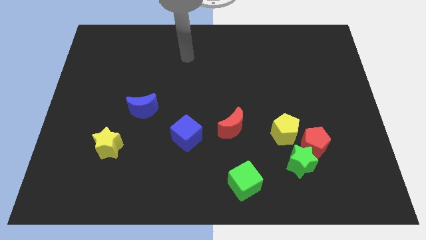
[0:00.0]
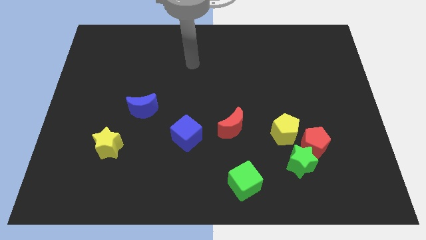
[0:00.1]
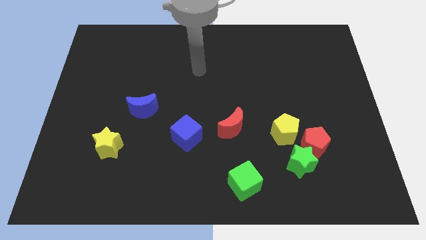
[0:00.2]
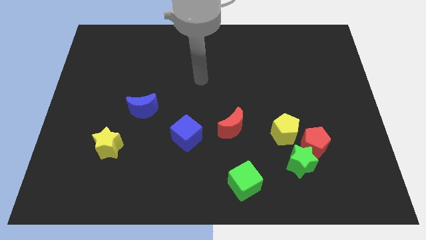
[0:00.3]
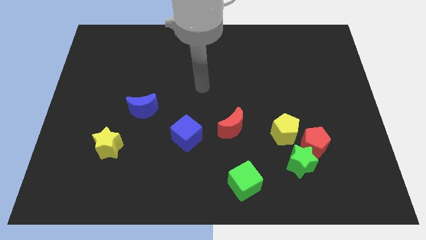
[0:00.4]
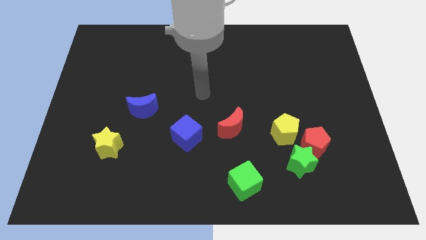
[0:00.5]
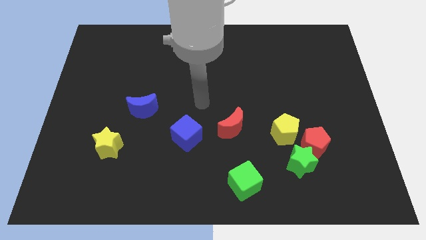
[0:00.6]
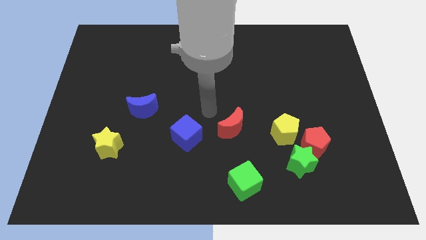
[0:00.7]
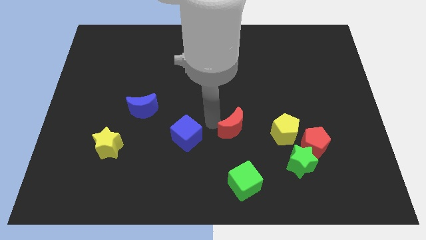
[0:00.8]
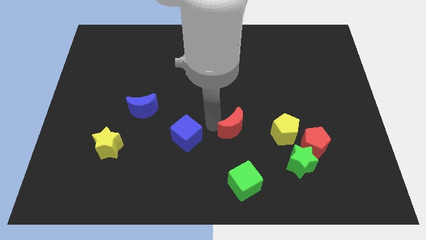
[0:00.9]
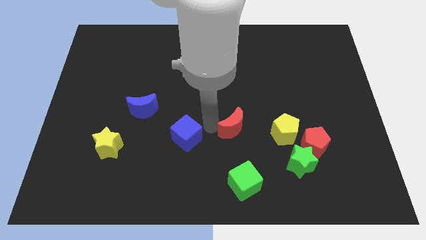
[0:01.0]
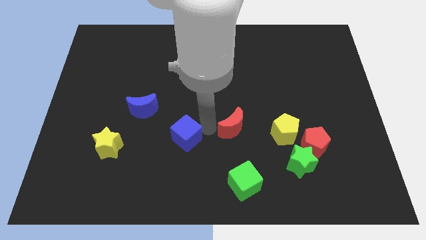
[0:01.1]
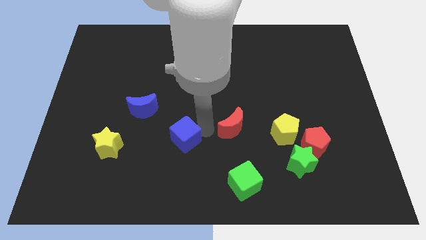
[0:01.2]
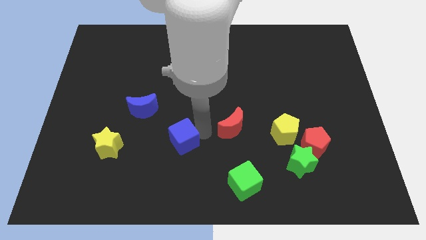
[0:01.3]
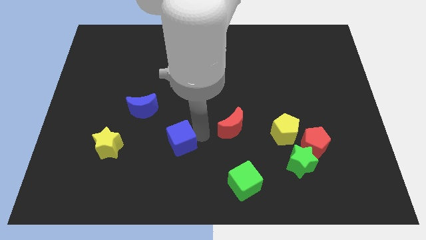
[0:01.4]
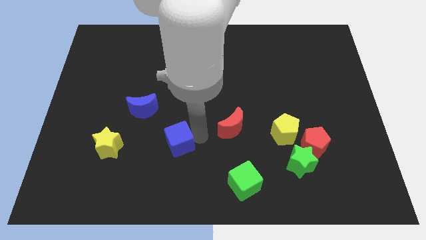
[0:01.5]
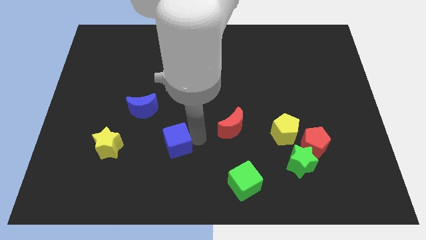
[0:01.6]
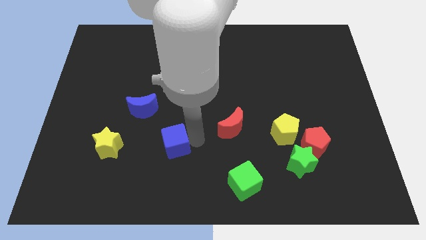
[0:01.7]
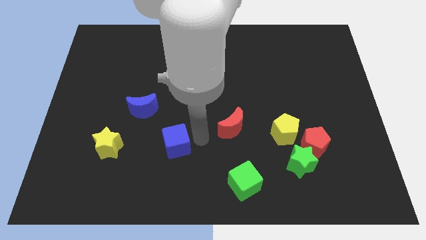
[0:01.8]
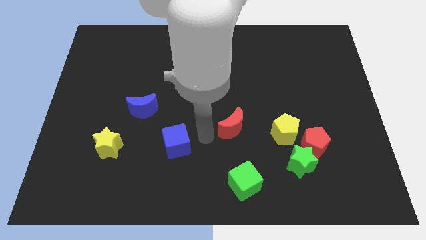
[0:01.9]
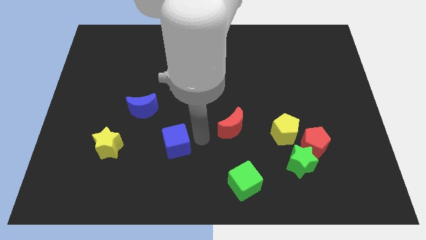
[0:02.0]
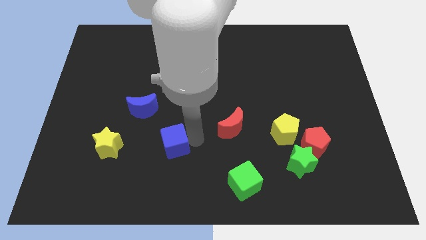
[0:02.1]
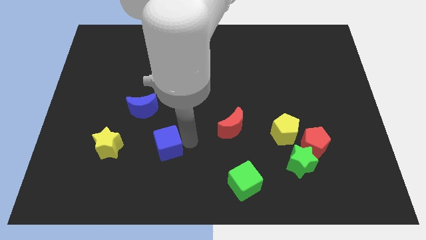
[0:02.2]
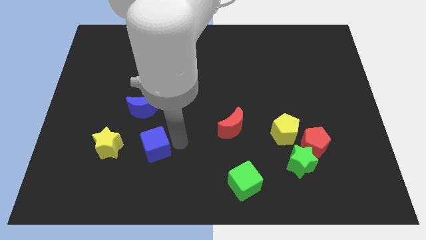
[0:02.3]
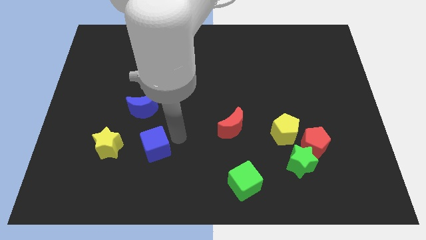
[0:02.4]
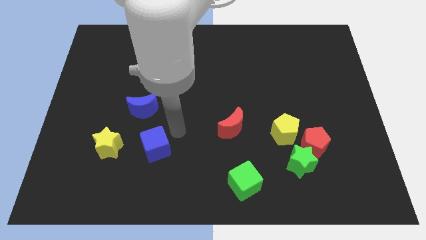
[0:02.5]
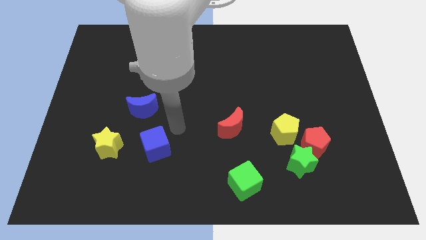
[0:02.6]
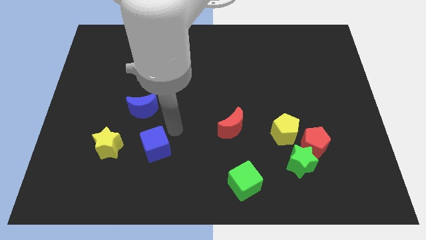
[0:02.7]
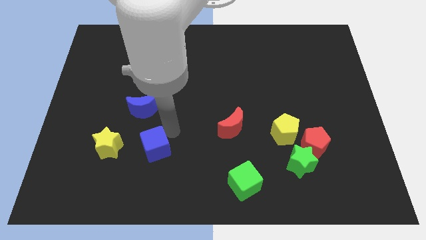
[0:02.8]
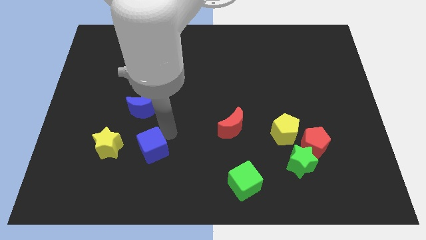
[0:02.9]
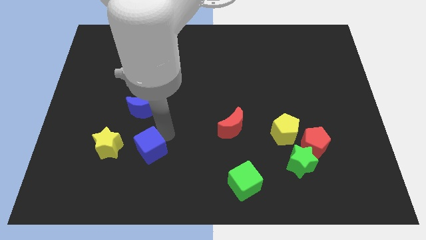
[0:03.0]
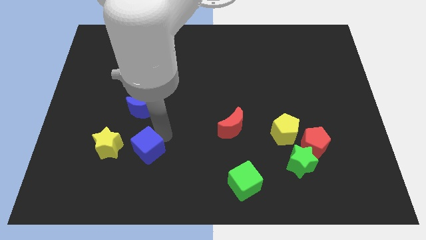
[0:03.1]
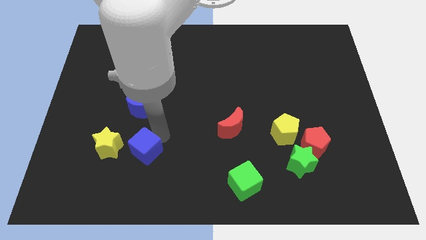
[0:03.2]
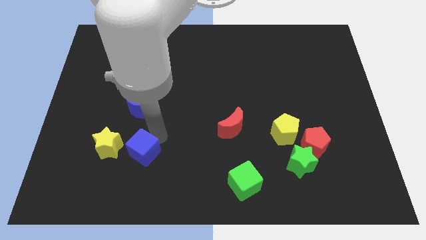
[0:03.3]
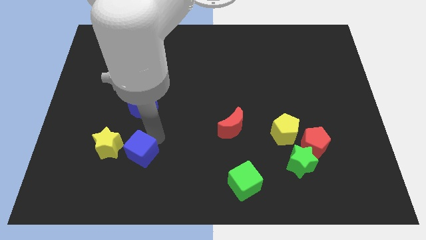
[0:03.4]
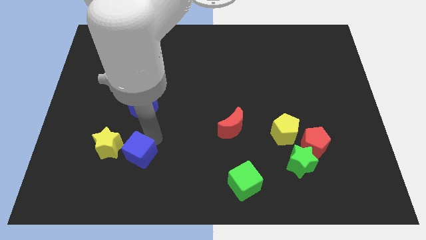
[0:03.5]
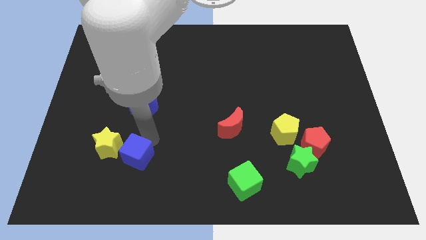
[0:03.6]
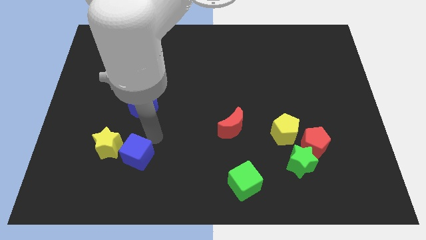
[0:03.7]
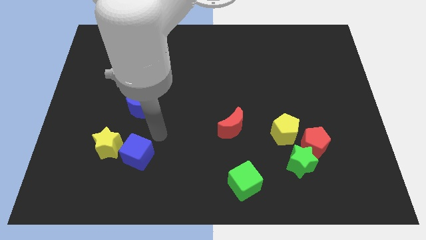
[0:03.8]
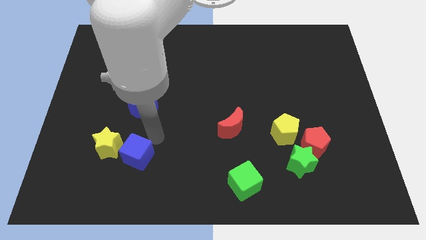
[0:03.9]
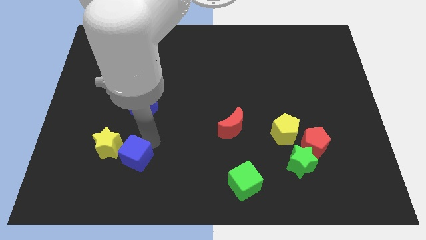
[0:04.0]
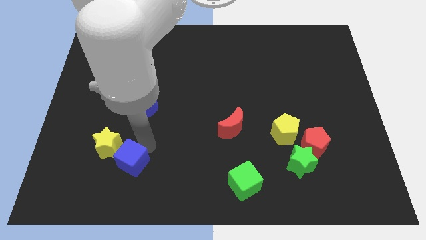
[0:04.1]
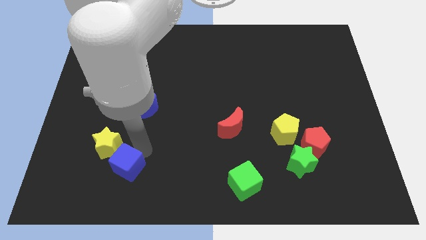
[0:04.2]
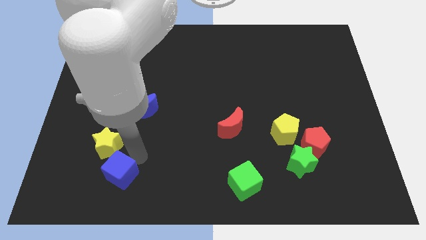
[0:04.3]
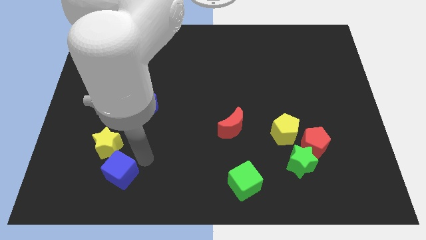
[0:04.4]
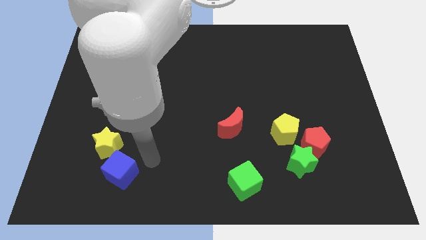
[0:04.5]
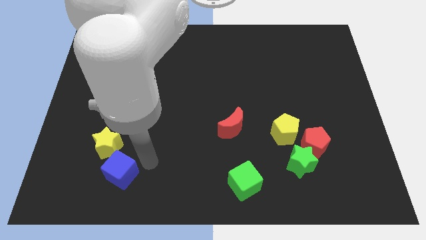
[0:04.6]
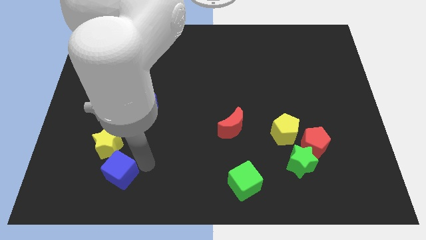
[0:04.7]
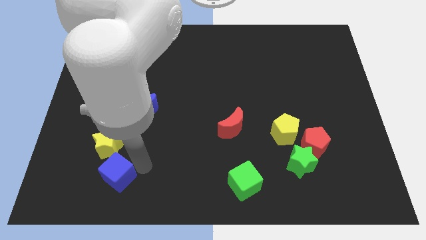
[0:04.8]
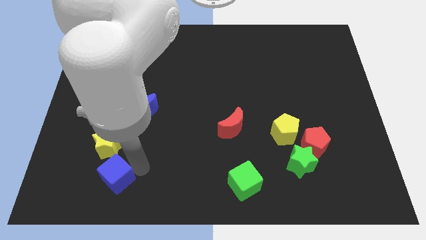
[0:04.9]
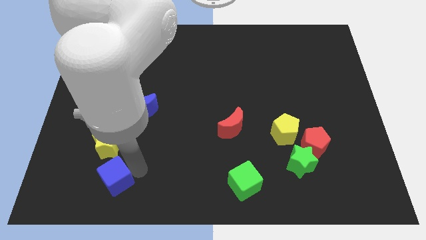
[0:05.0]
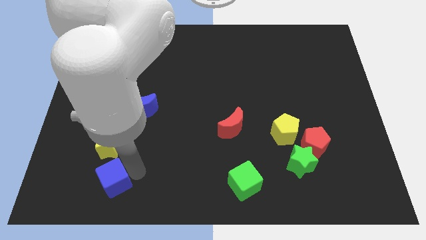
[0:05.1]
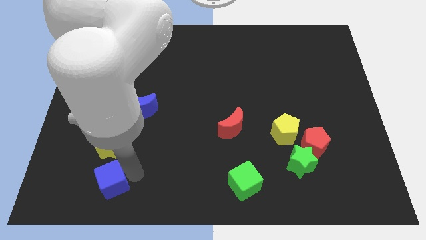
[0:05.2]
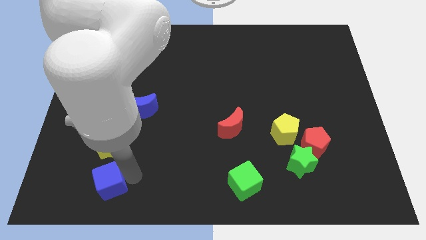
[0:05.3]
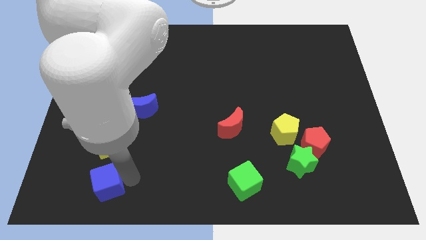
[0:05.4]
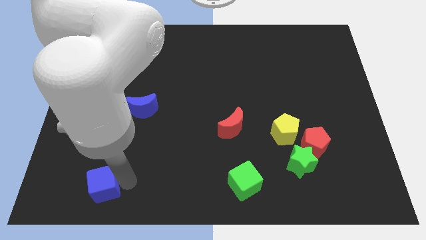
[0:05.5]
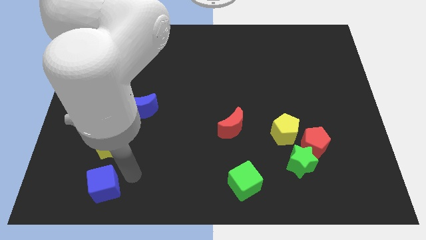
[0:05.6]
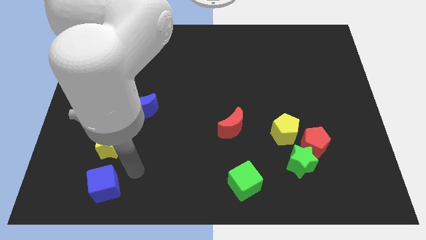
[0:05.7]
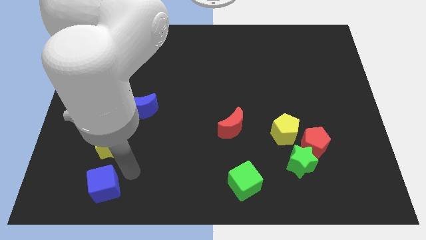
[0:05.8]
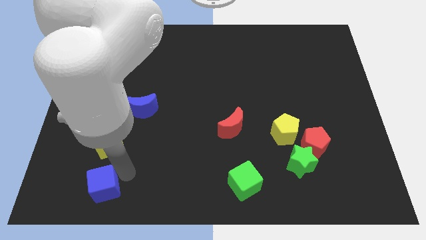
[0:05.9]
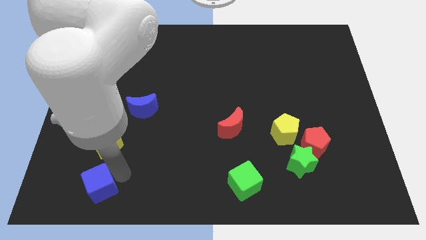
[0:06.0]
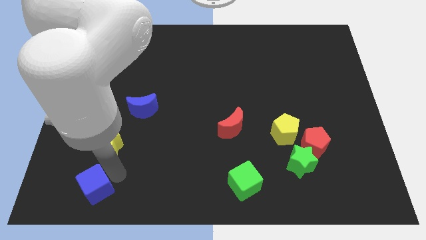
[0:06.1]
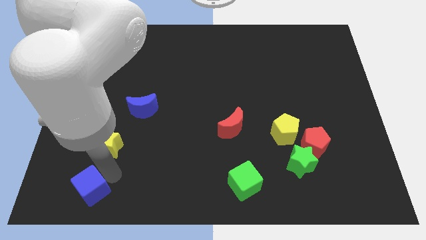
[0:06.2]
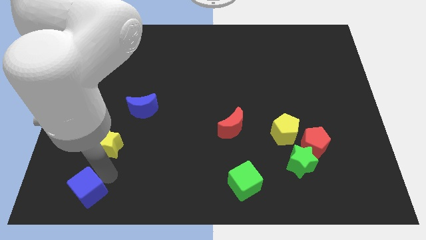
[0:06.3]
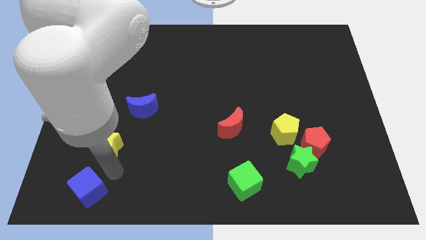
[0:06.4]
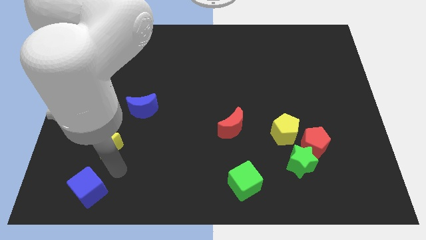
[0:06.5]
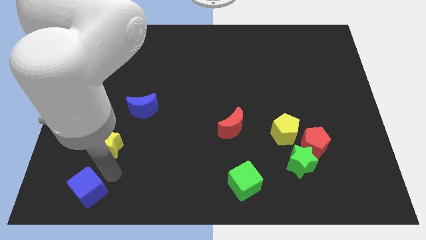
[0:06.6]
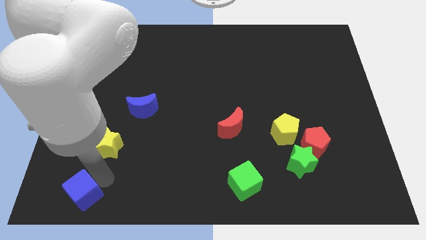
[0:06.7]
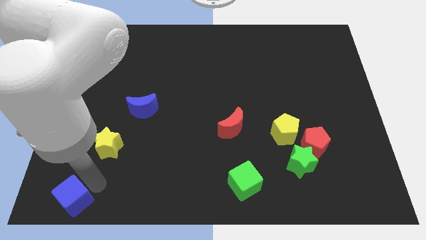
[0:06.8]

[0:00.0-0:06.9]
put the blue cube to the lower left corner
